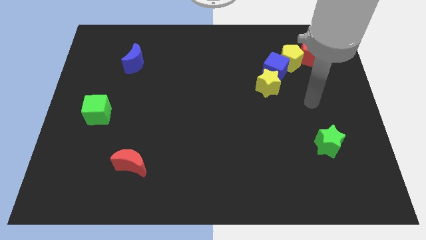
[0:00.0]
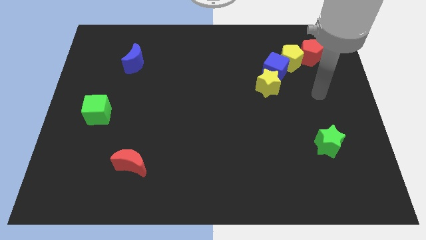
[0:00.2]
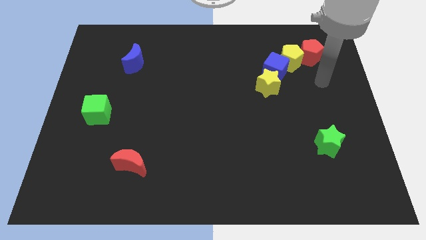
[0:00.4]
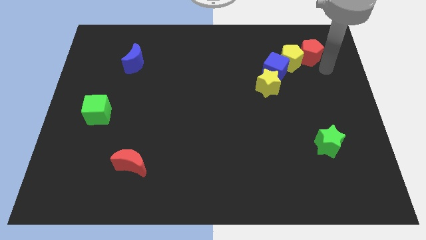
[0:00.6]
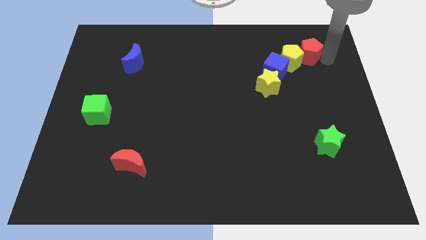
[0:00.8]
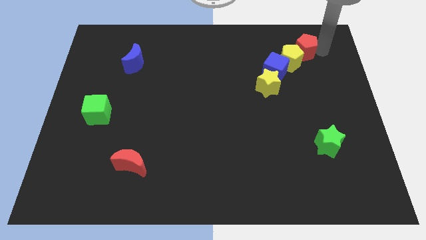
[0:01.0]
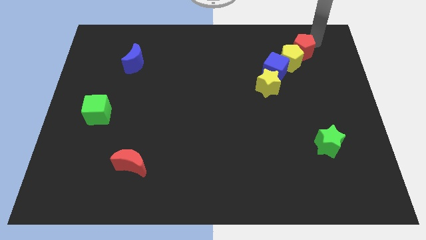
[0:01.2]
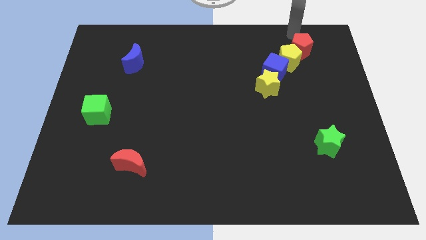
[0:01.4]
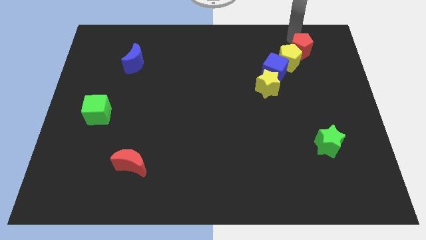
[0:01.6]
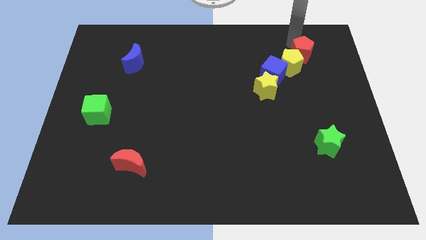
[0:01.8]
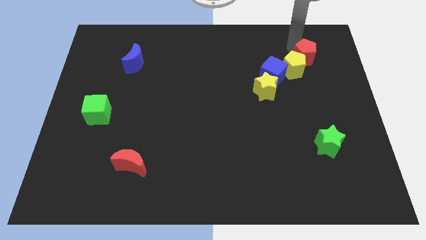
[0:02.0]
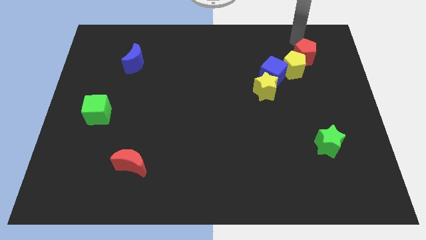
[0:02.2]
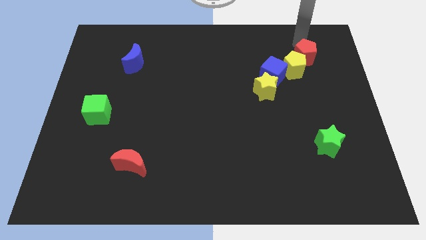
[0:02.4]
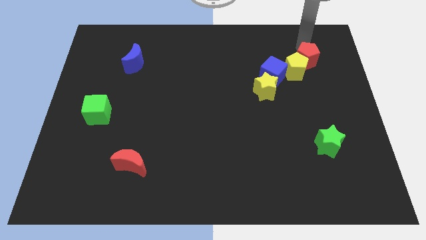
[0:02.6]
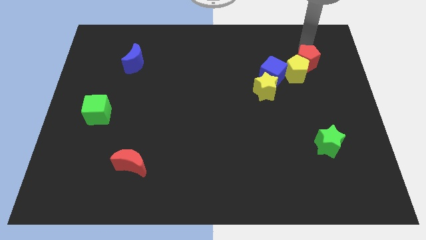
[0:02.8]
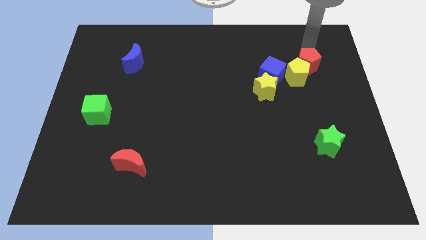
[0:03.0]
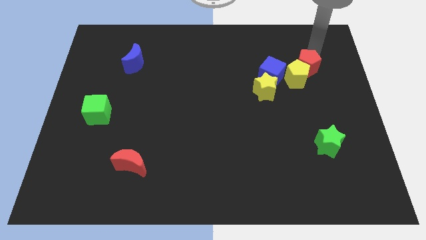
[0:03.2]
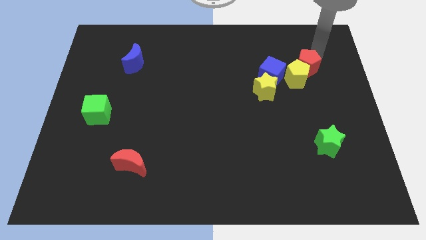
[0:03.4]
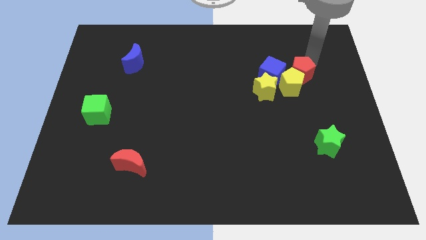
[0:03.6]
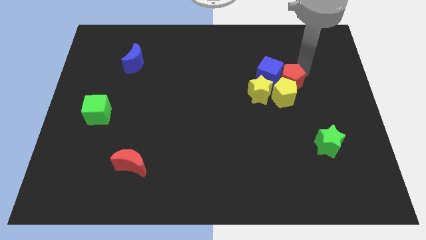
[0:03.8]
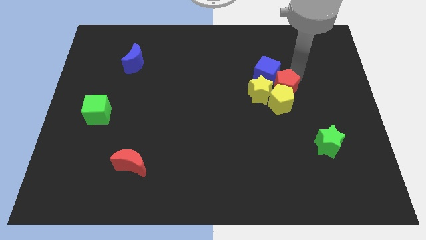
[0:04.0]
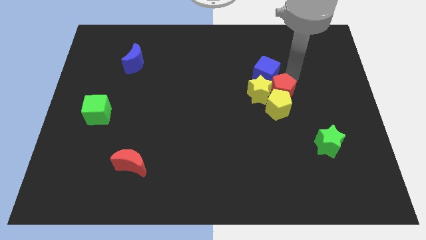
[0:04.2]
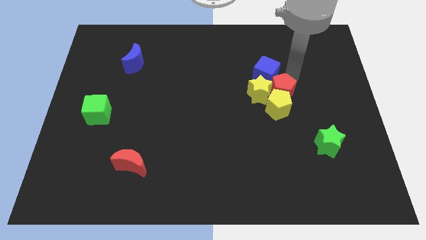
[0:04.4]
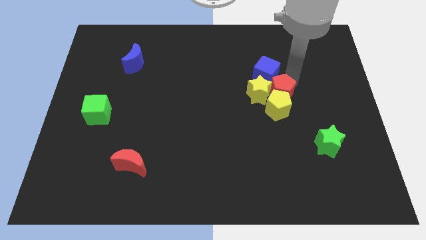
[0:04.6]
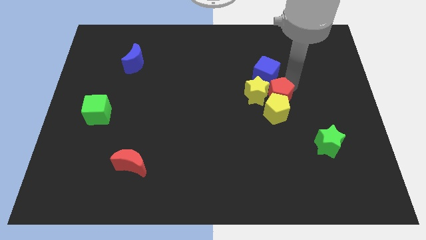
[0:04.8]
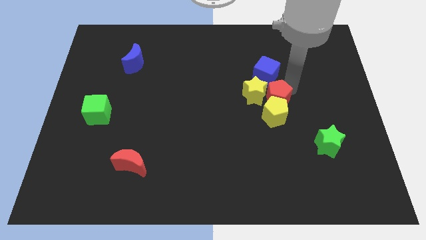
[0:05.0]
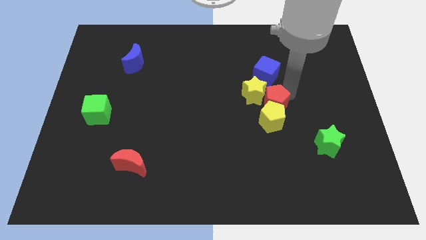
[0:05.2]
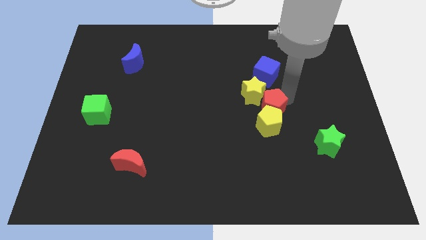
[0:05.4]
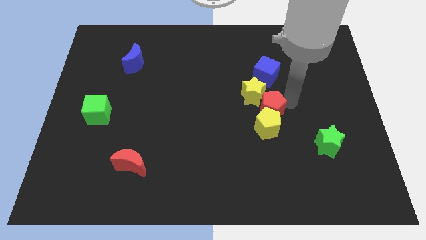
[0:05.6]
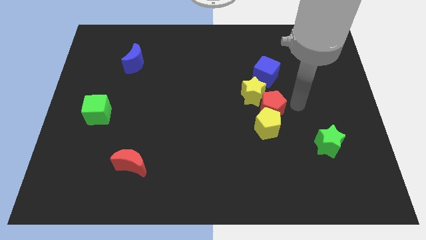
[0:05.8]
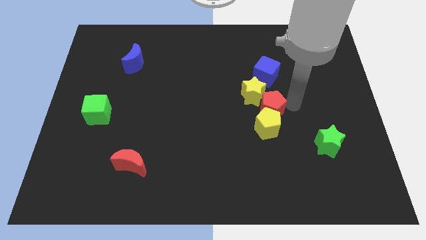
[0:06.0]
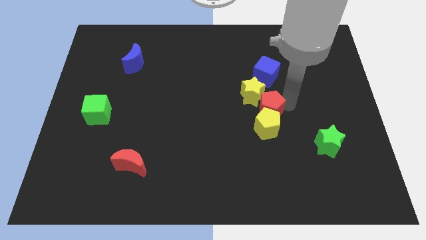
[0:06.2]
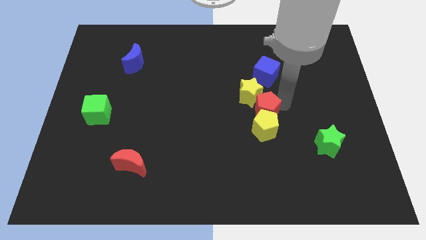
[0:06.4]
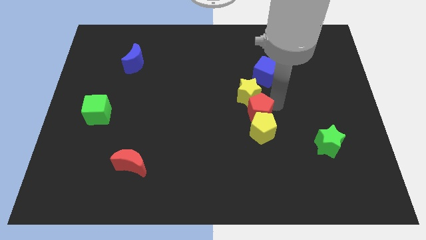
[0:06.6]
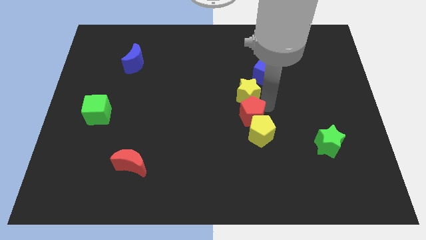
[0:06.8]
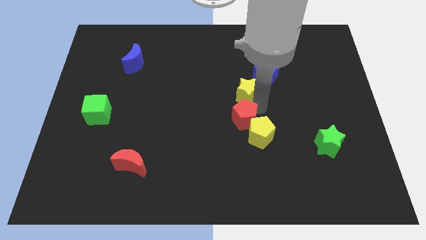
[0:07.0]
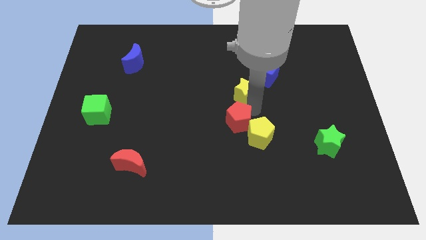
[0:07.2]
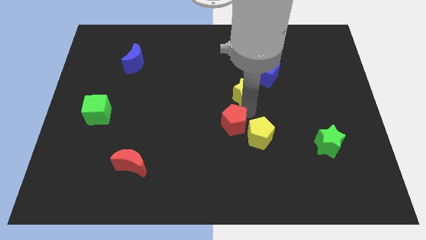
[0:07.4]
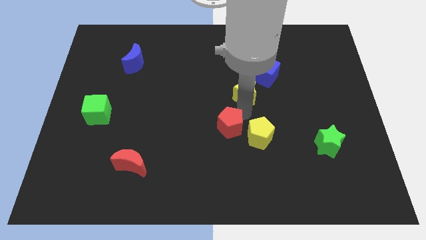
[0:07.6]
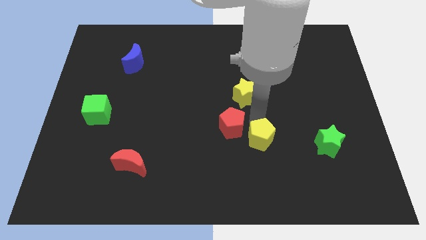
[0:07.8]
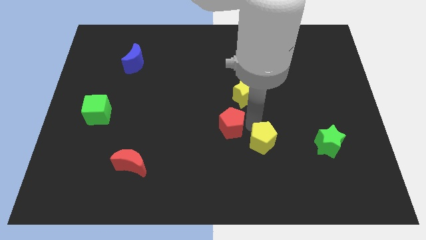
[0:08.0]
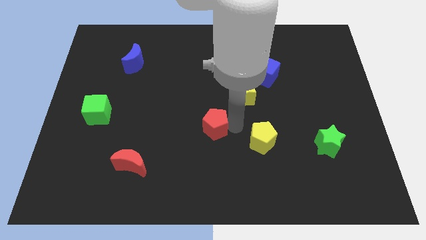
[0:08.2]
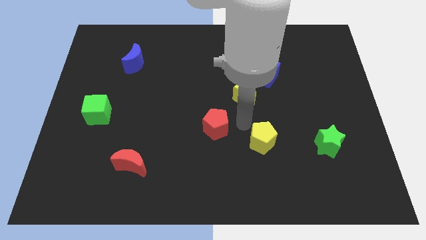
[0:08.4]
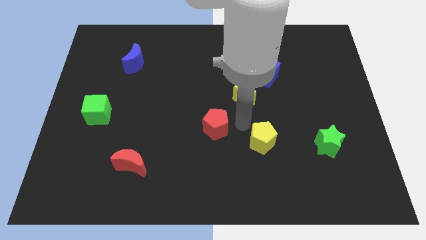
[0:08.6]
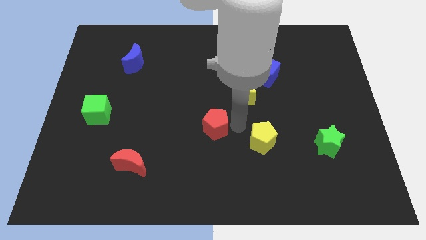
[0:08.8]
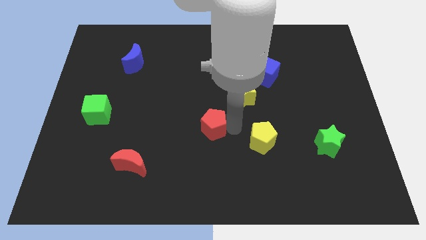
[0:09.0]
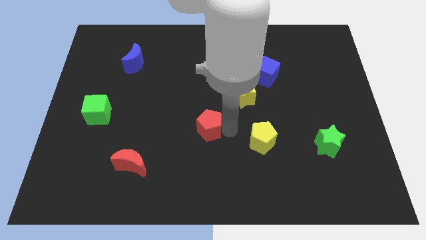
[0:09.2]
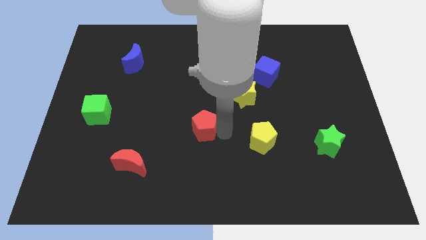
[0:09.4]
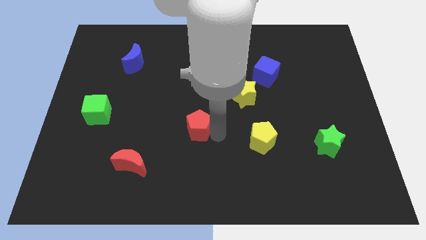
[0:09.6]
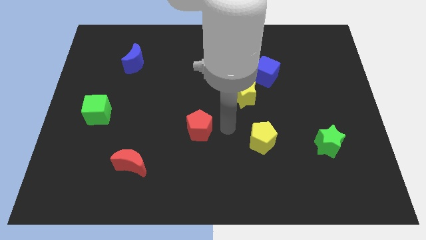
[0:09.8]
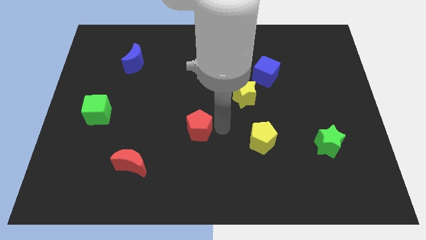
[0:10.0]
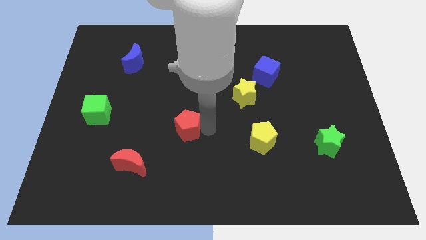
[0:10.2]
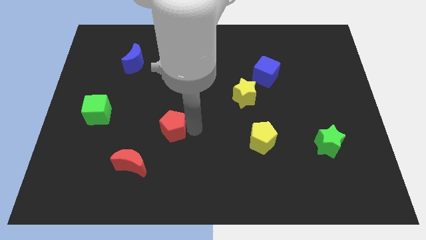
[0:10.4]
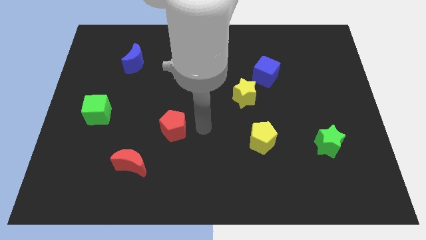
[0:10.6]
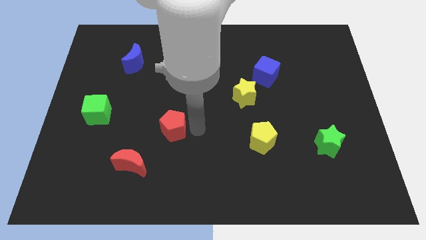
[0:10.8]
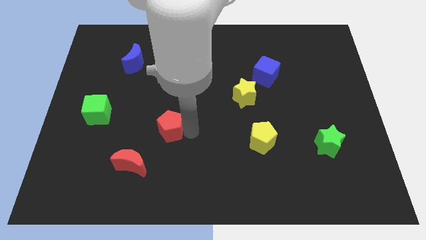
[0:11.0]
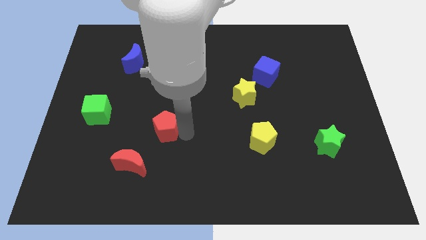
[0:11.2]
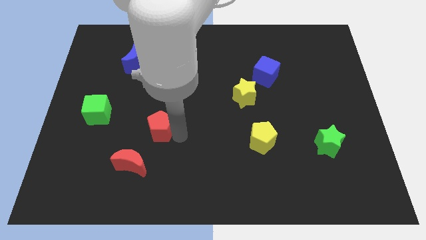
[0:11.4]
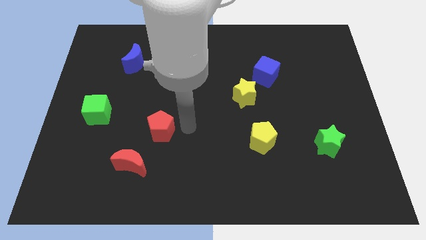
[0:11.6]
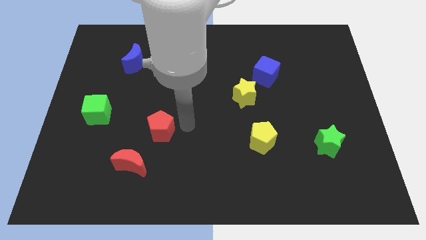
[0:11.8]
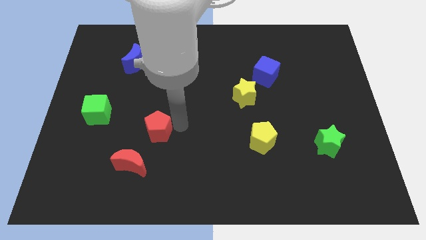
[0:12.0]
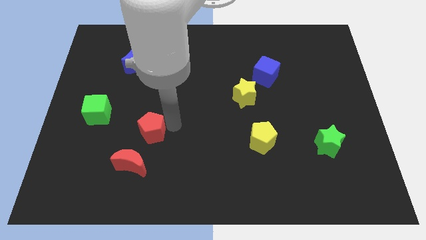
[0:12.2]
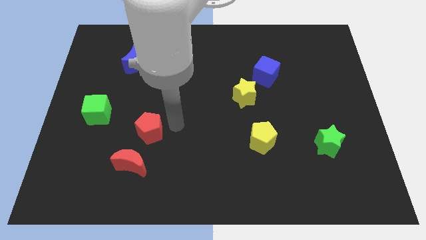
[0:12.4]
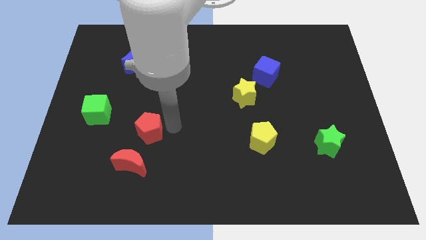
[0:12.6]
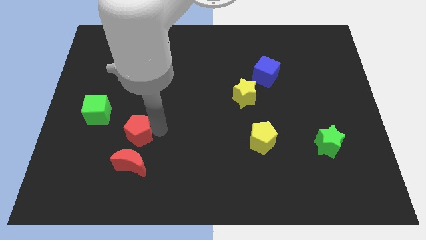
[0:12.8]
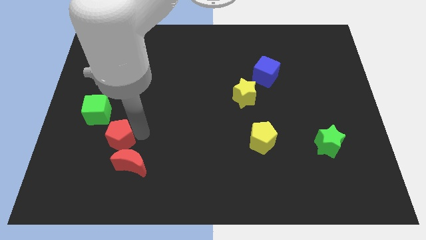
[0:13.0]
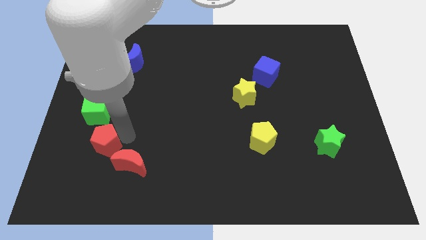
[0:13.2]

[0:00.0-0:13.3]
put the red pentagon left of the red moon
